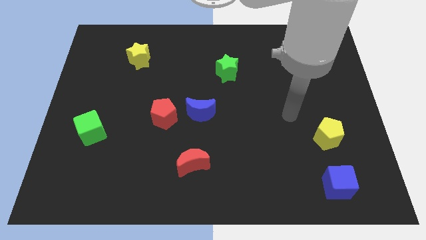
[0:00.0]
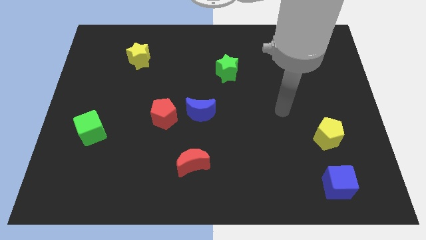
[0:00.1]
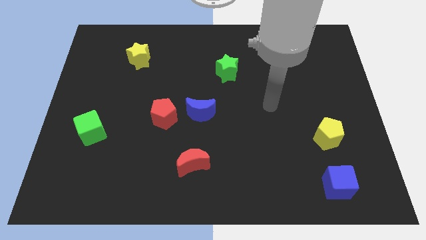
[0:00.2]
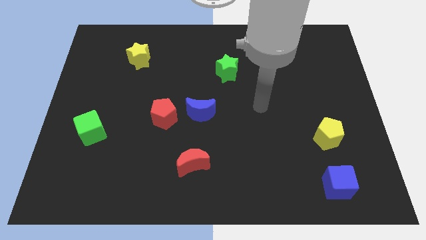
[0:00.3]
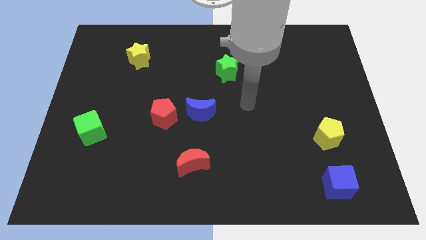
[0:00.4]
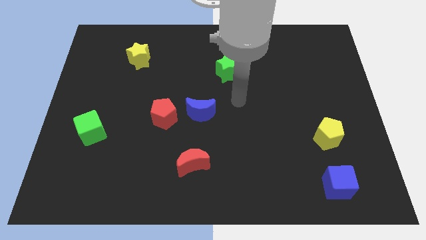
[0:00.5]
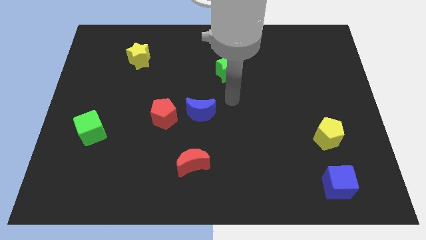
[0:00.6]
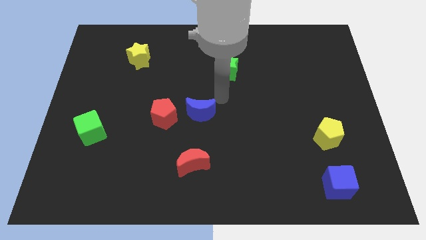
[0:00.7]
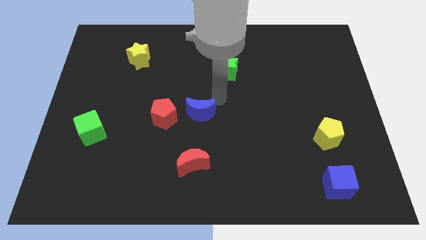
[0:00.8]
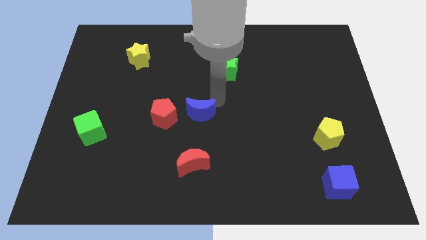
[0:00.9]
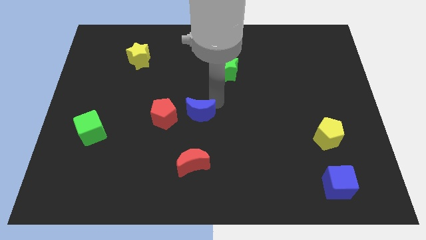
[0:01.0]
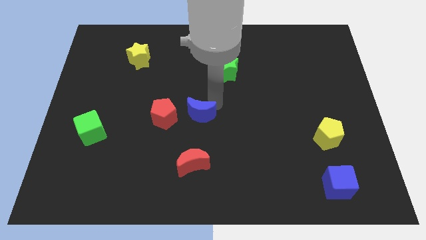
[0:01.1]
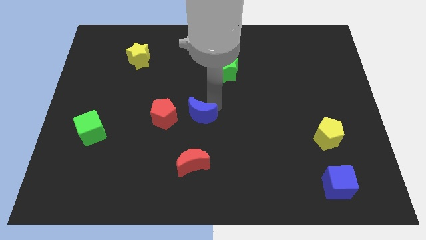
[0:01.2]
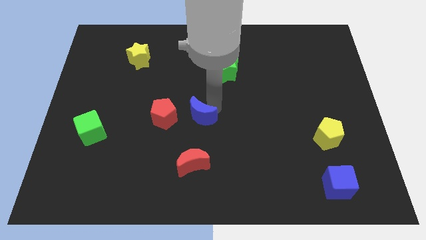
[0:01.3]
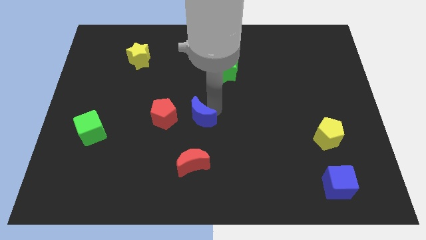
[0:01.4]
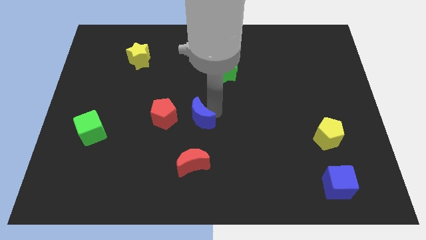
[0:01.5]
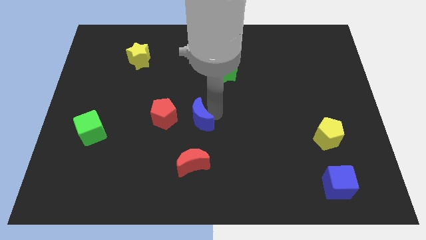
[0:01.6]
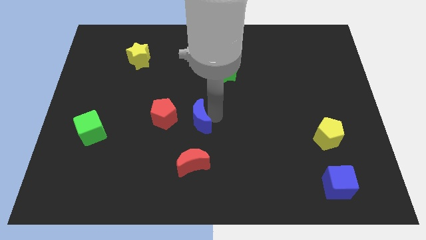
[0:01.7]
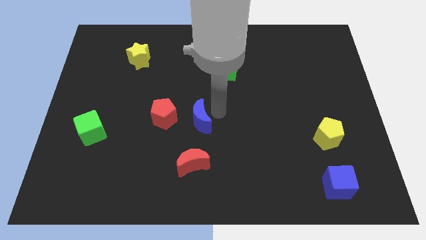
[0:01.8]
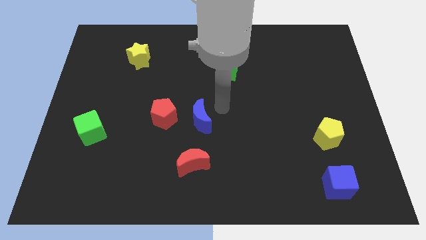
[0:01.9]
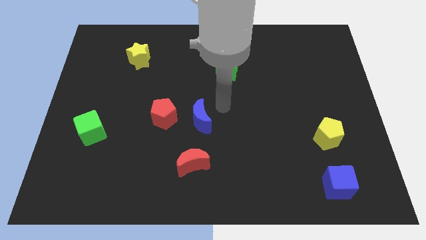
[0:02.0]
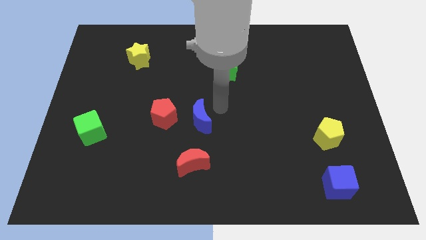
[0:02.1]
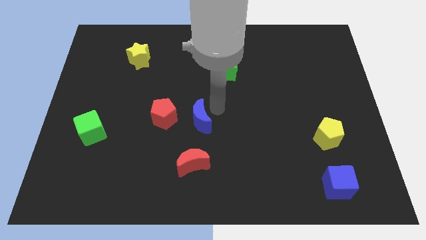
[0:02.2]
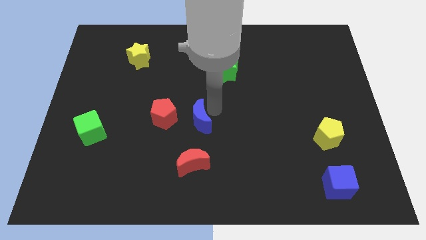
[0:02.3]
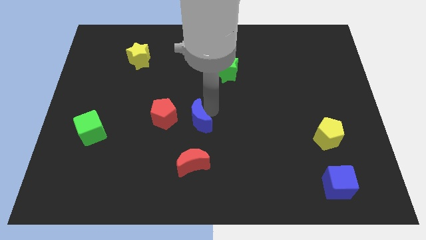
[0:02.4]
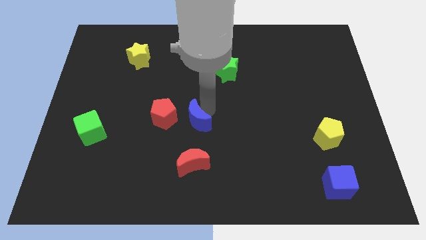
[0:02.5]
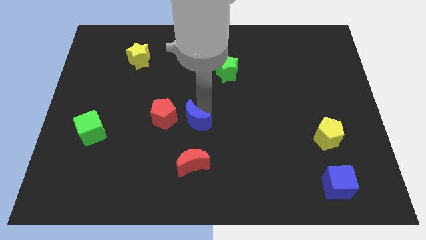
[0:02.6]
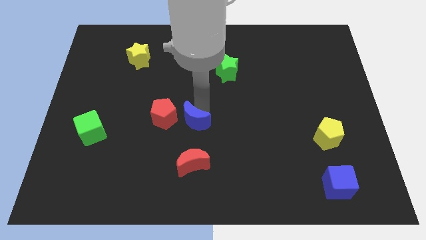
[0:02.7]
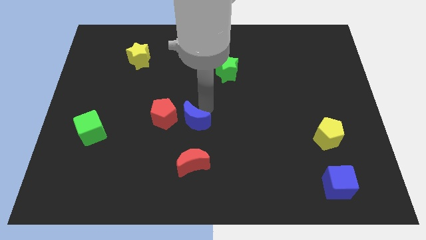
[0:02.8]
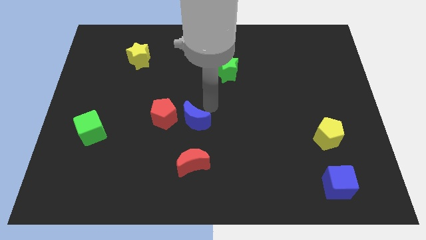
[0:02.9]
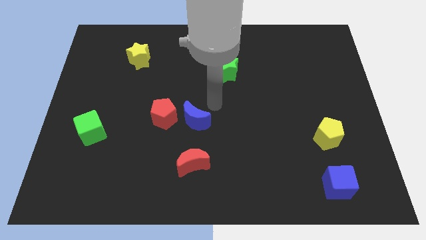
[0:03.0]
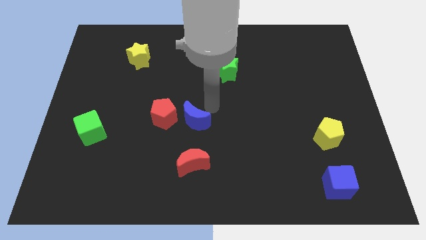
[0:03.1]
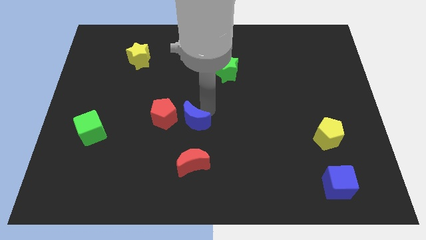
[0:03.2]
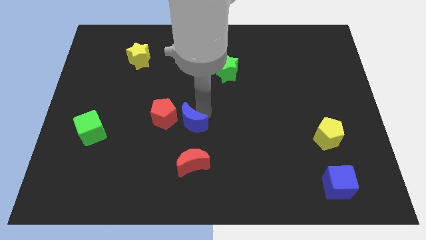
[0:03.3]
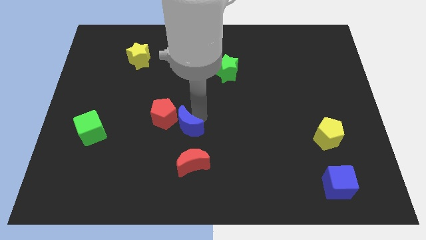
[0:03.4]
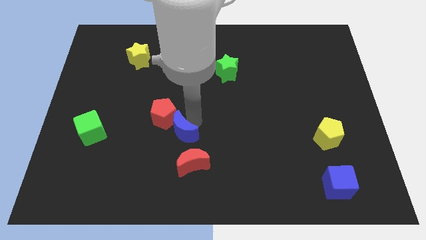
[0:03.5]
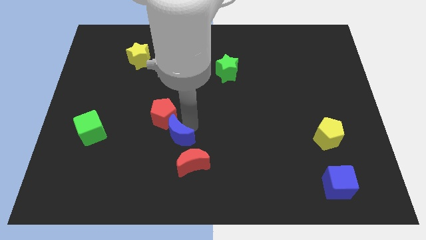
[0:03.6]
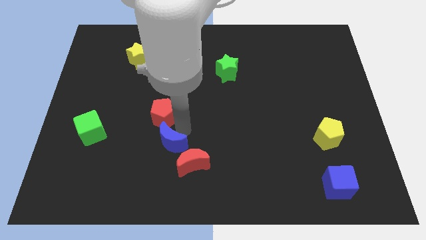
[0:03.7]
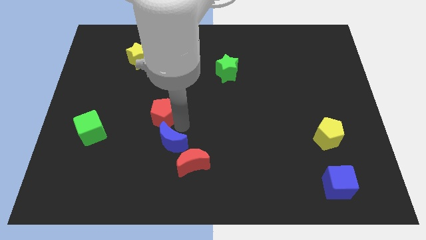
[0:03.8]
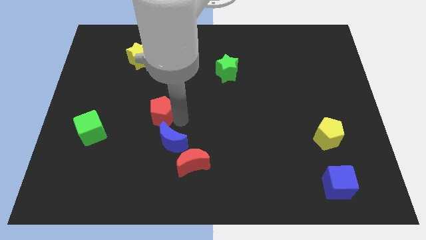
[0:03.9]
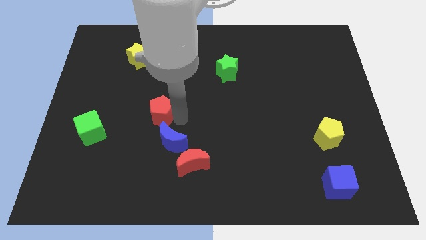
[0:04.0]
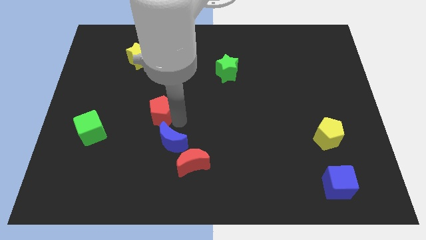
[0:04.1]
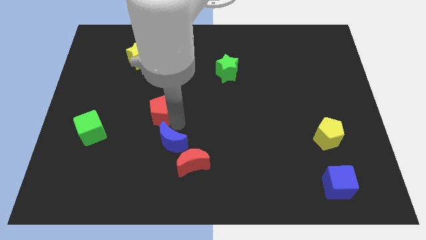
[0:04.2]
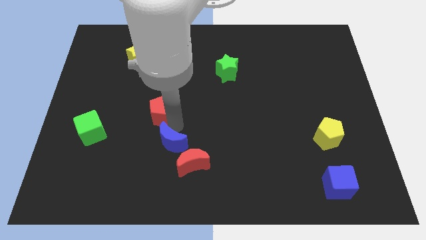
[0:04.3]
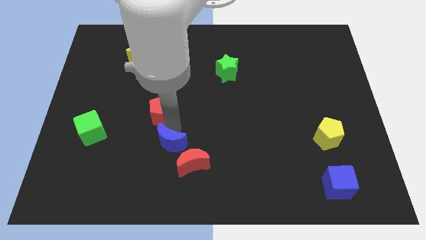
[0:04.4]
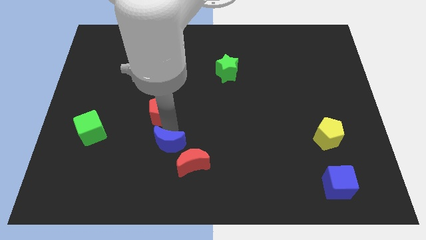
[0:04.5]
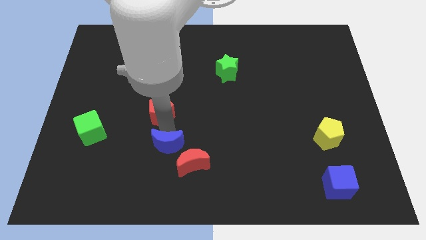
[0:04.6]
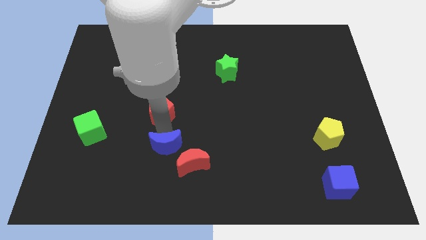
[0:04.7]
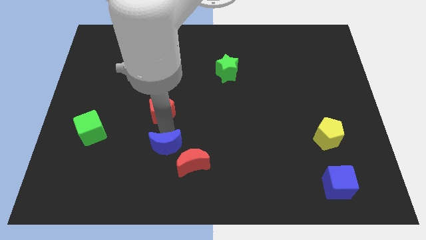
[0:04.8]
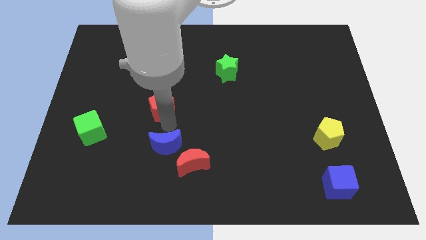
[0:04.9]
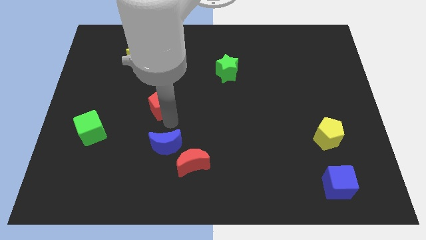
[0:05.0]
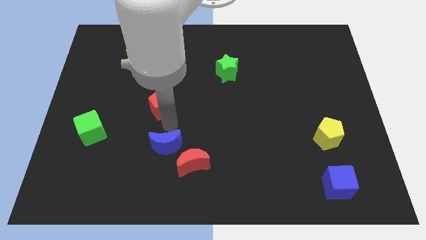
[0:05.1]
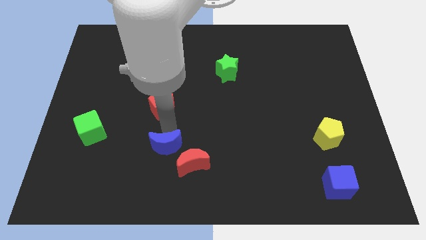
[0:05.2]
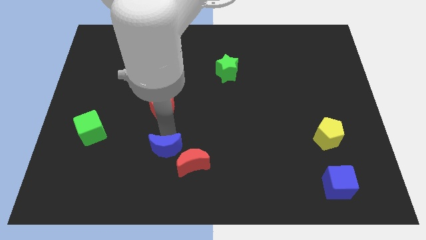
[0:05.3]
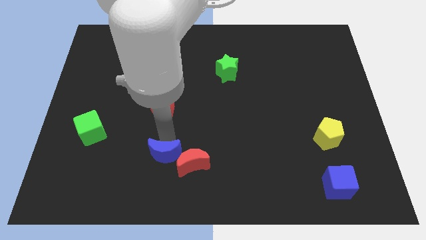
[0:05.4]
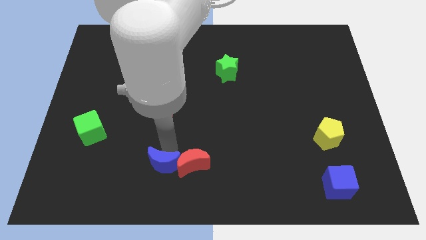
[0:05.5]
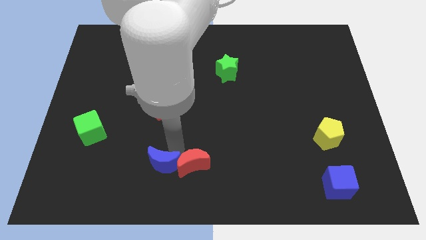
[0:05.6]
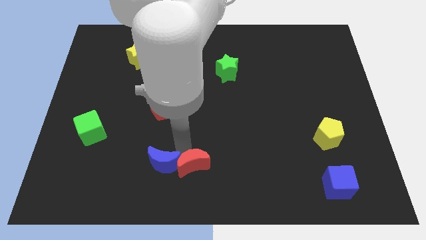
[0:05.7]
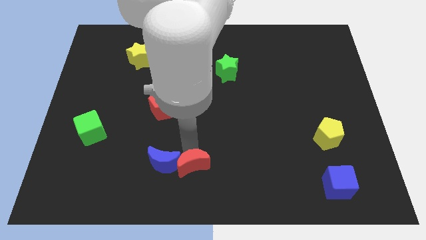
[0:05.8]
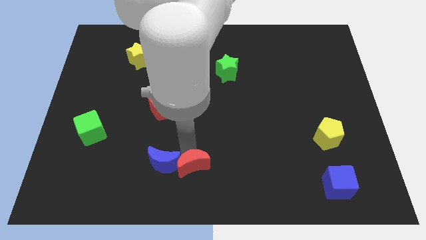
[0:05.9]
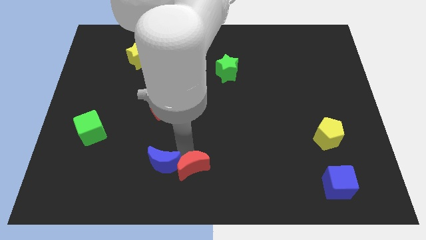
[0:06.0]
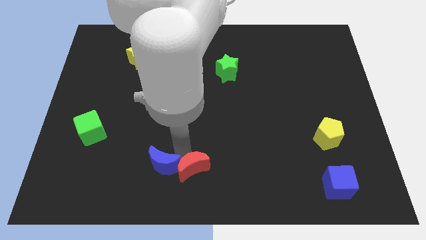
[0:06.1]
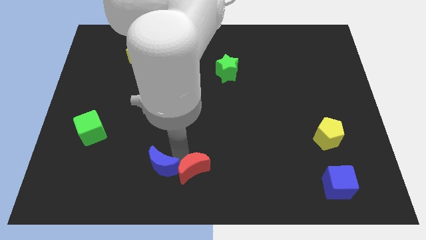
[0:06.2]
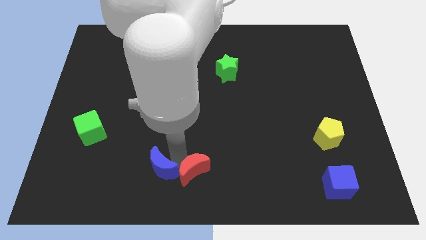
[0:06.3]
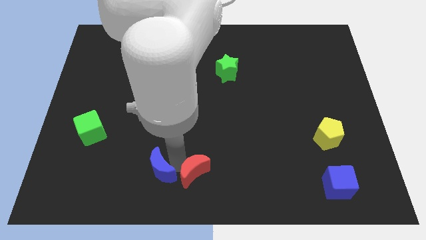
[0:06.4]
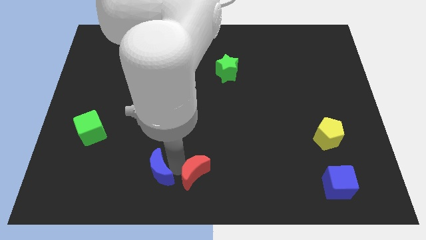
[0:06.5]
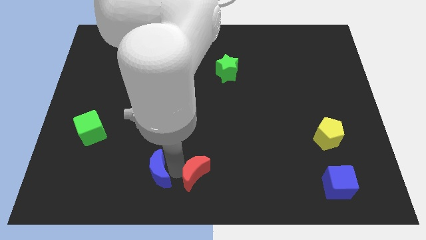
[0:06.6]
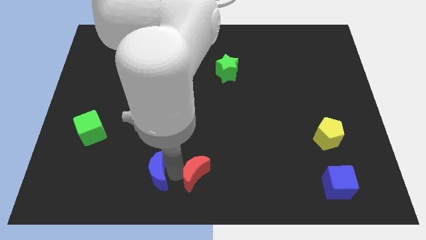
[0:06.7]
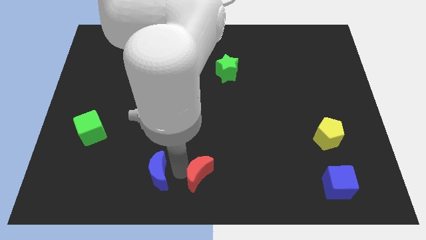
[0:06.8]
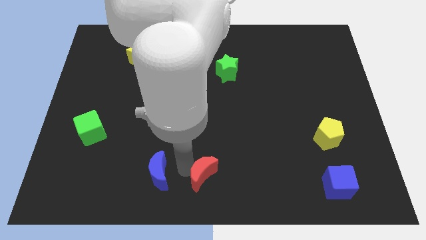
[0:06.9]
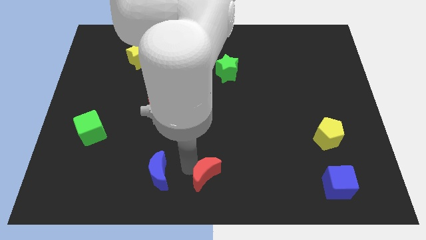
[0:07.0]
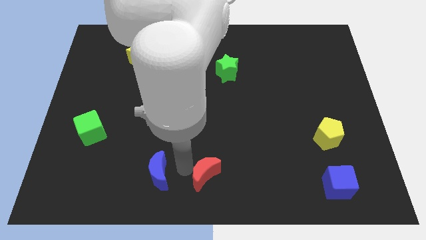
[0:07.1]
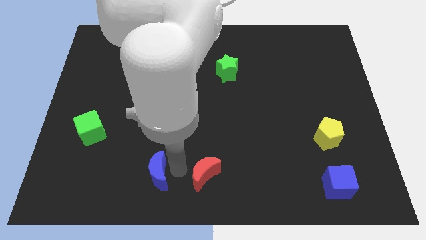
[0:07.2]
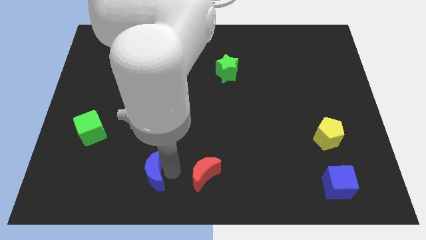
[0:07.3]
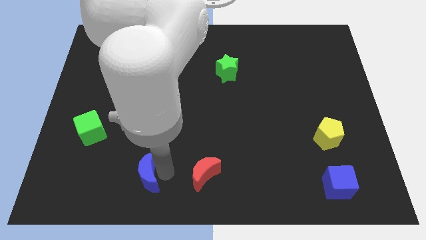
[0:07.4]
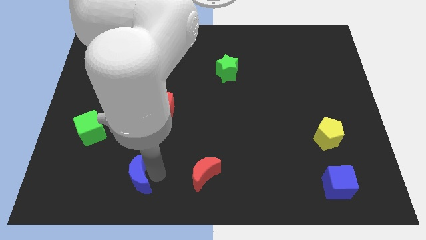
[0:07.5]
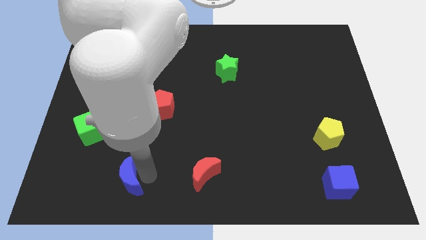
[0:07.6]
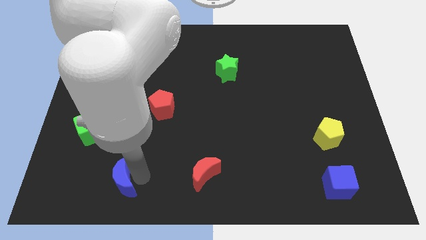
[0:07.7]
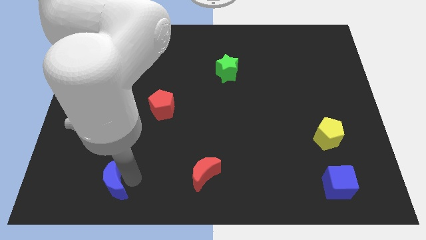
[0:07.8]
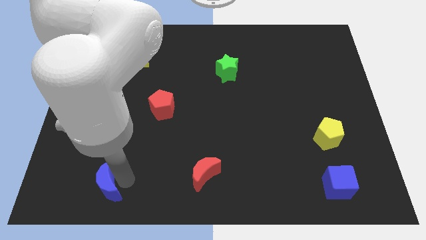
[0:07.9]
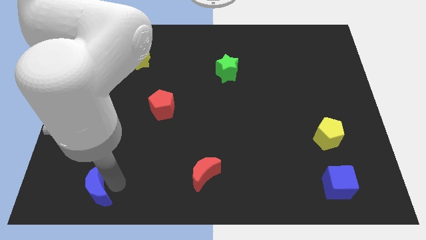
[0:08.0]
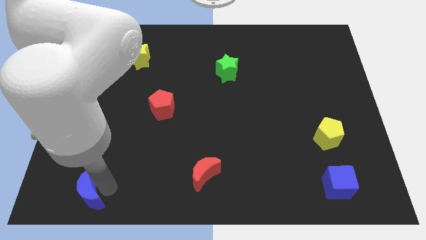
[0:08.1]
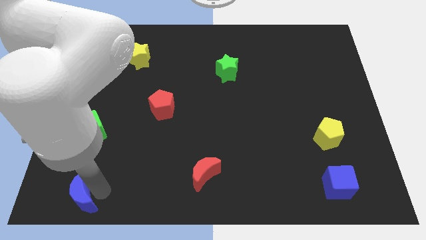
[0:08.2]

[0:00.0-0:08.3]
put the blue moon to the bottom left of the board
